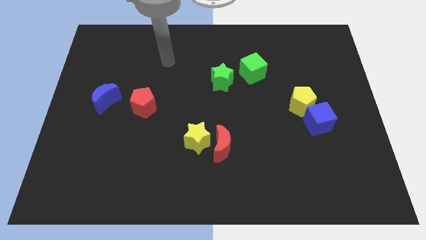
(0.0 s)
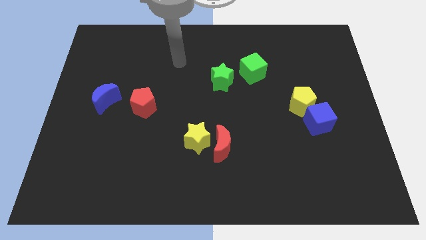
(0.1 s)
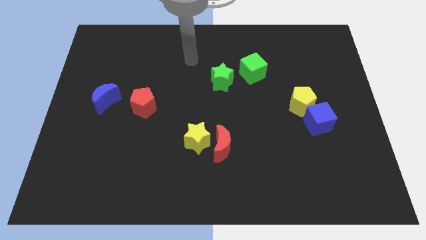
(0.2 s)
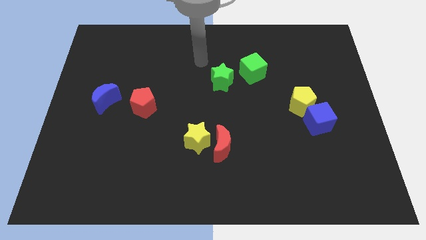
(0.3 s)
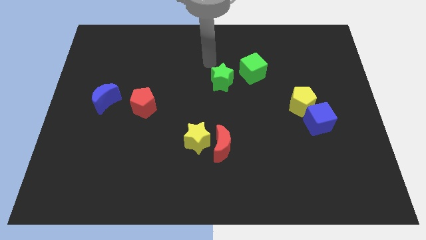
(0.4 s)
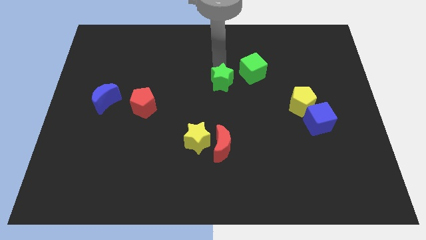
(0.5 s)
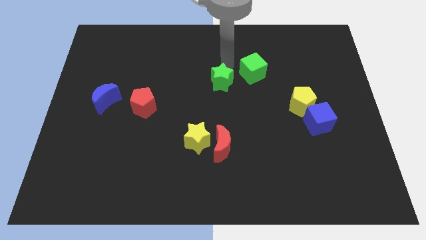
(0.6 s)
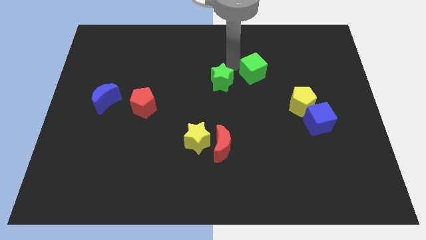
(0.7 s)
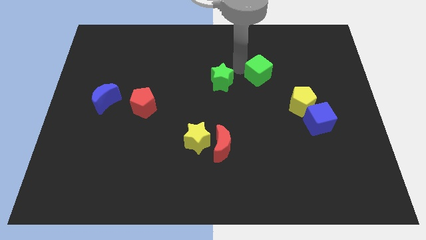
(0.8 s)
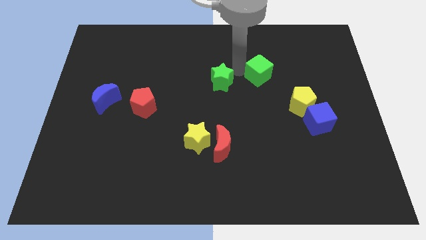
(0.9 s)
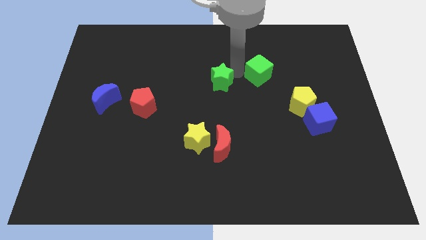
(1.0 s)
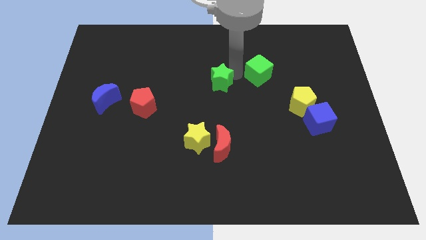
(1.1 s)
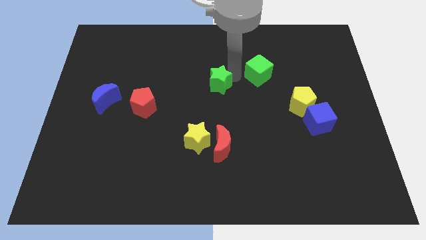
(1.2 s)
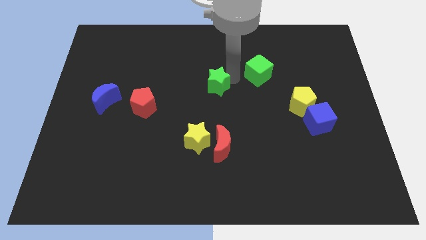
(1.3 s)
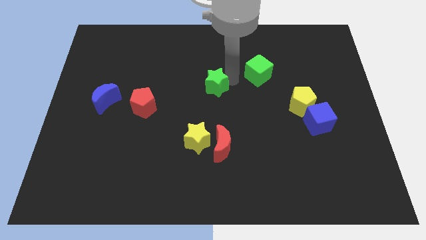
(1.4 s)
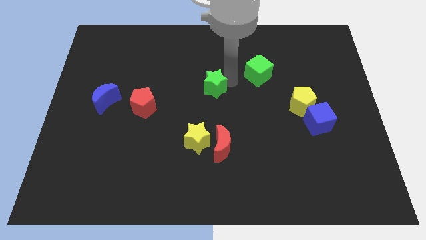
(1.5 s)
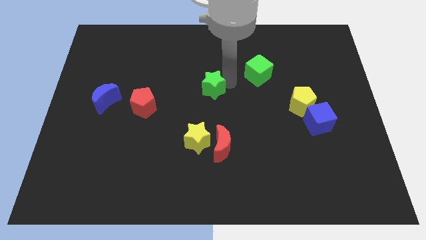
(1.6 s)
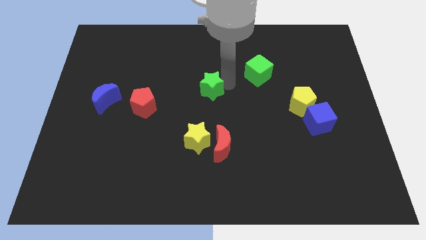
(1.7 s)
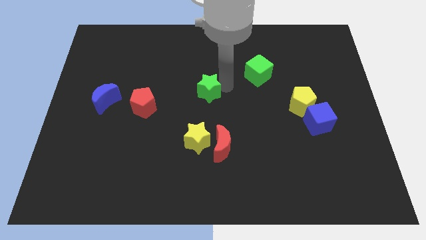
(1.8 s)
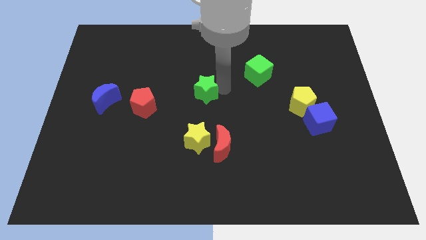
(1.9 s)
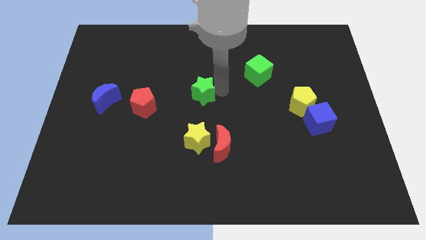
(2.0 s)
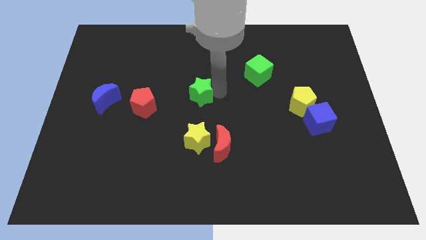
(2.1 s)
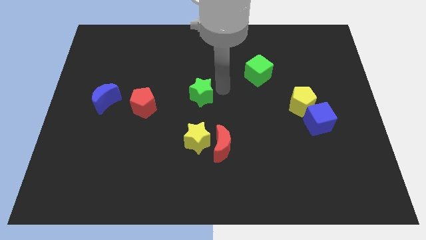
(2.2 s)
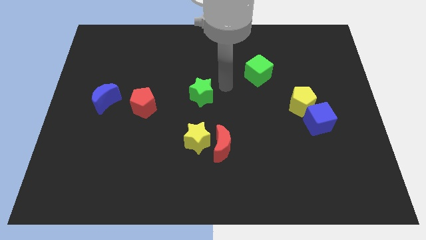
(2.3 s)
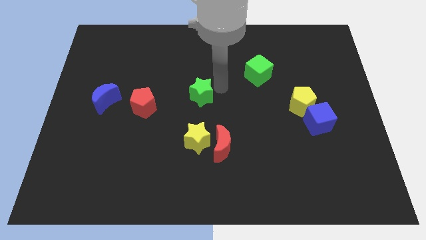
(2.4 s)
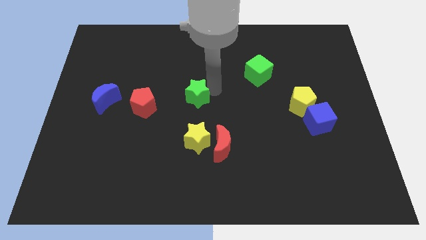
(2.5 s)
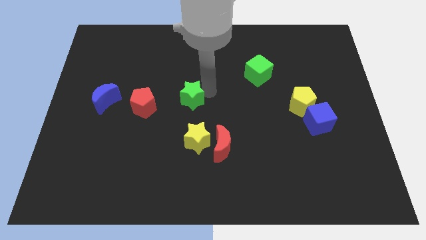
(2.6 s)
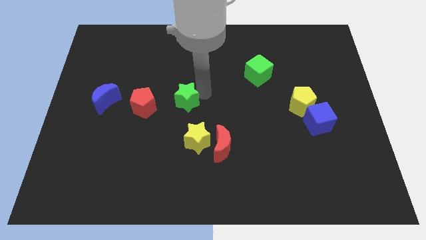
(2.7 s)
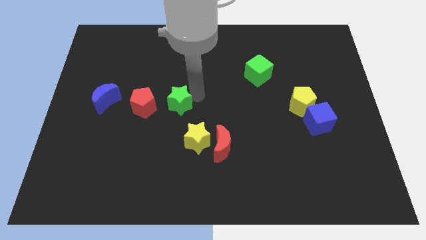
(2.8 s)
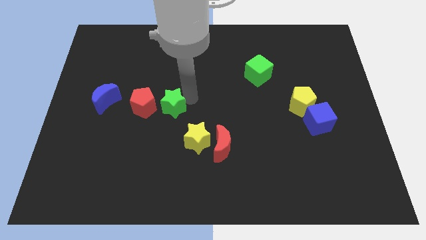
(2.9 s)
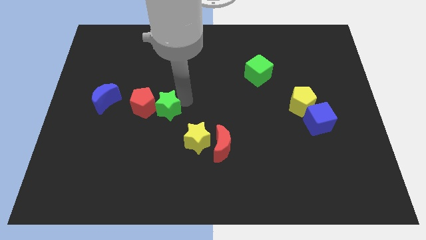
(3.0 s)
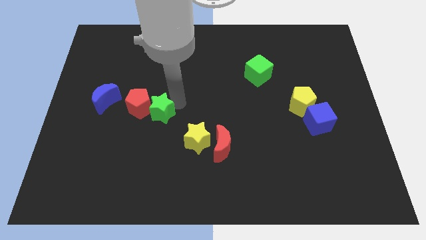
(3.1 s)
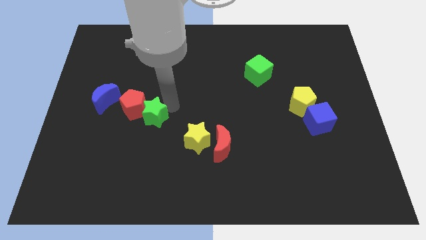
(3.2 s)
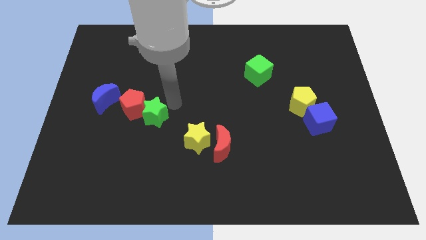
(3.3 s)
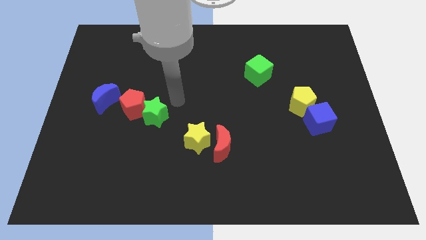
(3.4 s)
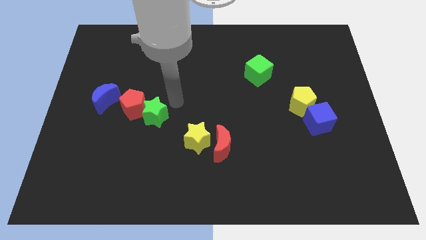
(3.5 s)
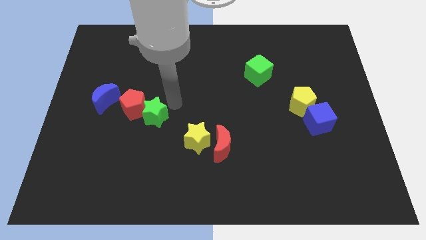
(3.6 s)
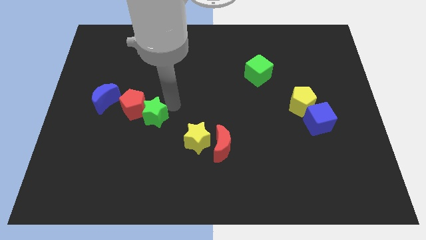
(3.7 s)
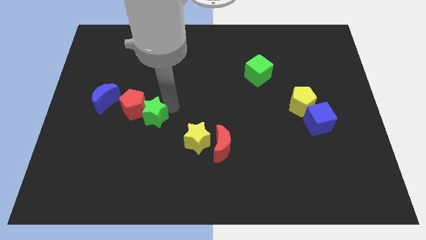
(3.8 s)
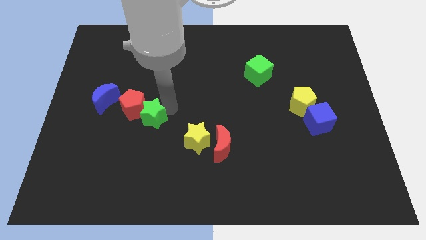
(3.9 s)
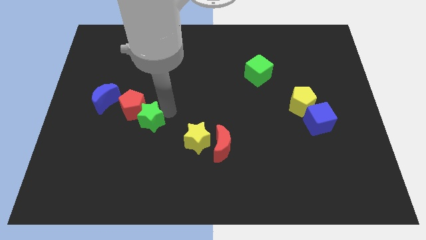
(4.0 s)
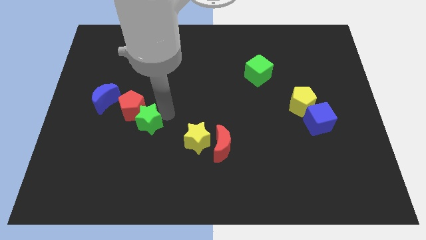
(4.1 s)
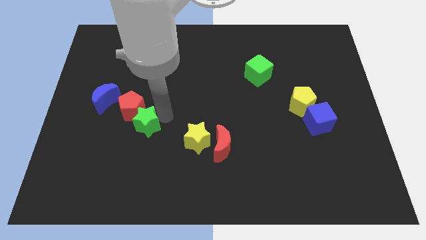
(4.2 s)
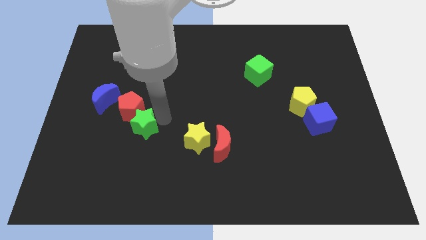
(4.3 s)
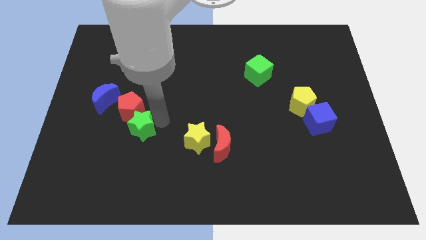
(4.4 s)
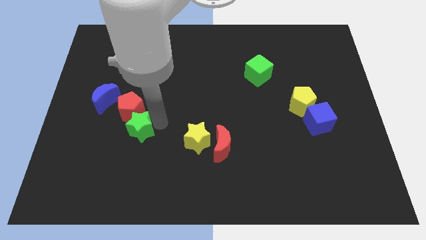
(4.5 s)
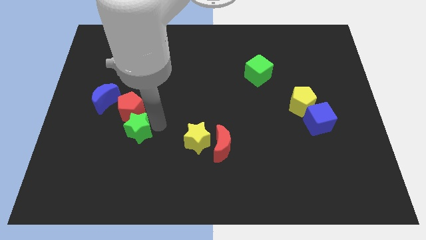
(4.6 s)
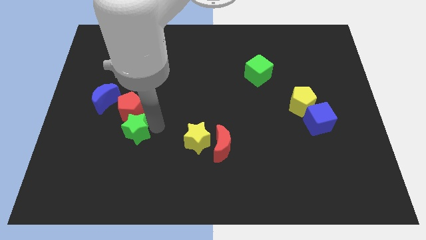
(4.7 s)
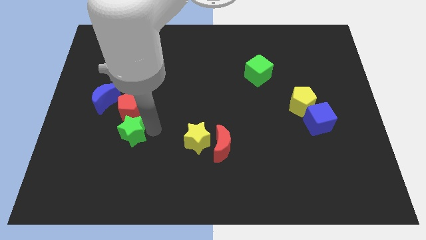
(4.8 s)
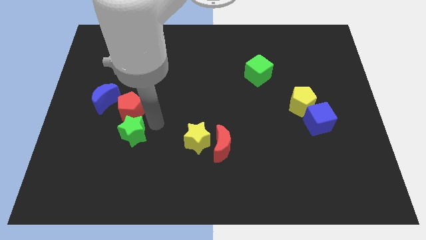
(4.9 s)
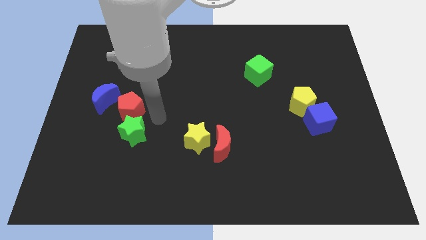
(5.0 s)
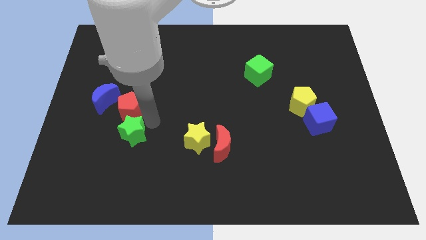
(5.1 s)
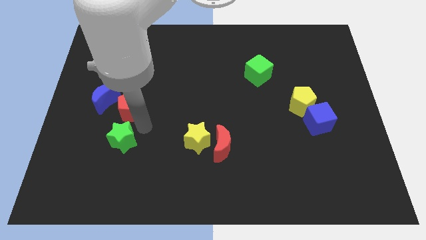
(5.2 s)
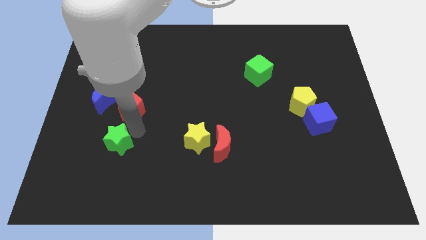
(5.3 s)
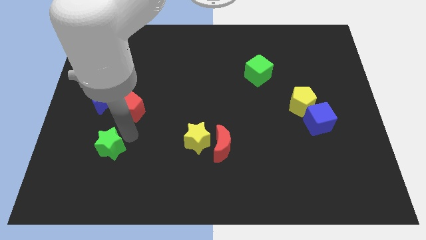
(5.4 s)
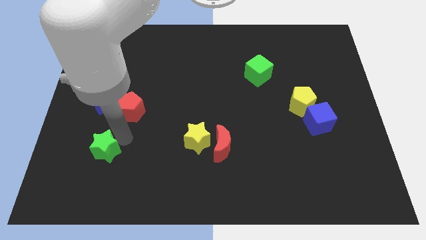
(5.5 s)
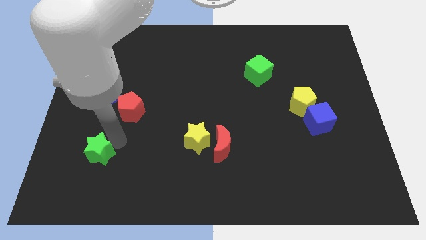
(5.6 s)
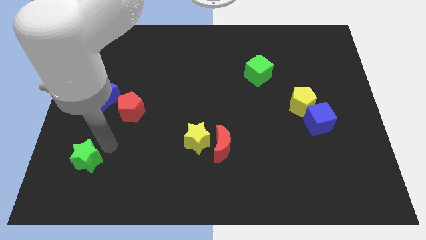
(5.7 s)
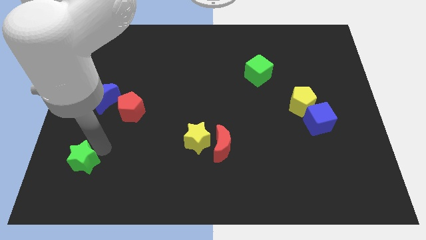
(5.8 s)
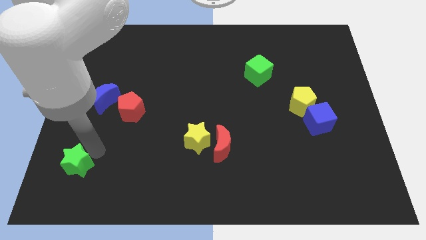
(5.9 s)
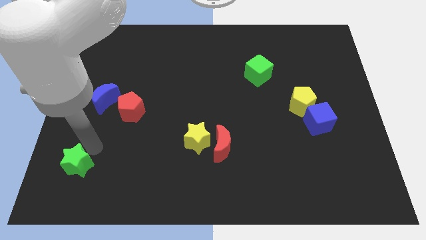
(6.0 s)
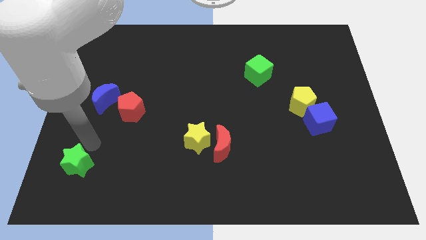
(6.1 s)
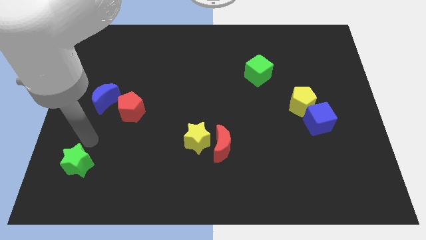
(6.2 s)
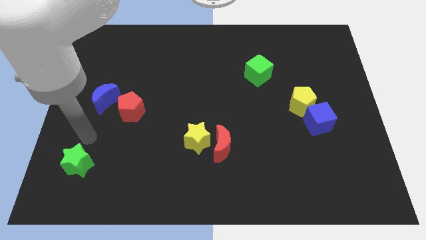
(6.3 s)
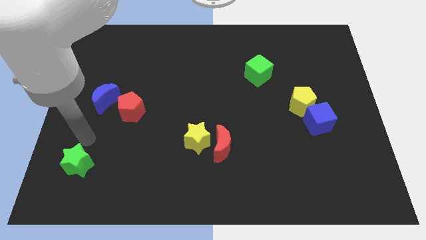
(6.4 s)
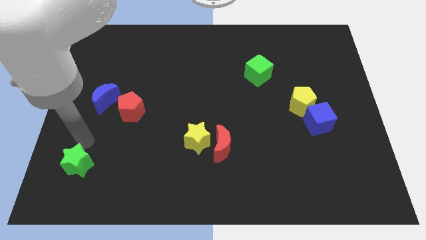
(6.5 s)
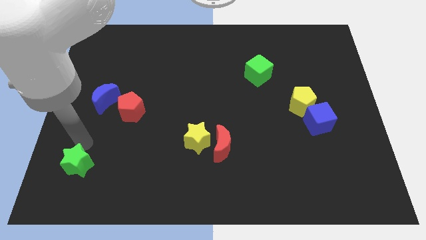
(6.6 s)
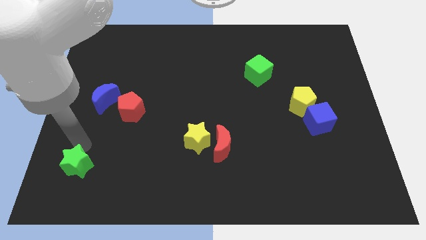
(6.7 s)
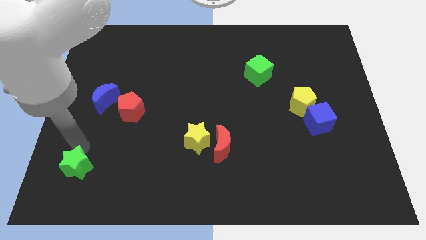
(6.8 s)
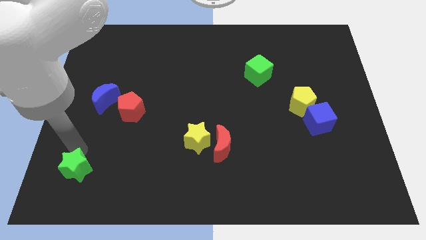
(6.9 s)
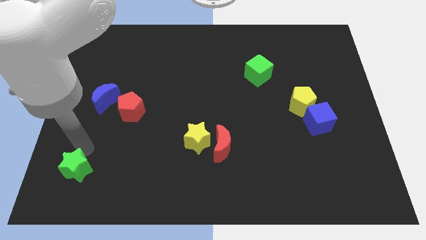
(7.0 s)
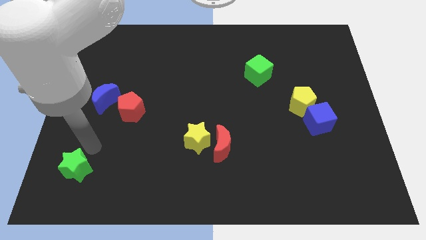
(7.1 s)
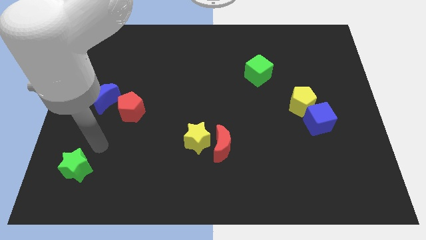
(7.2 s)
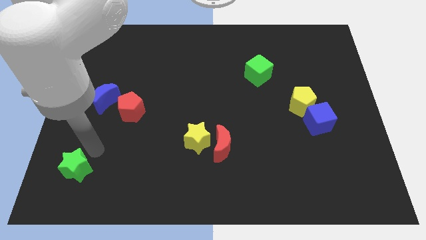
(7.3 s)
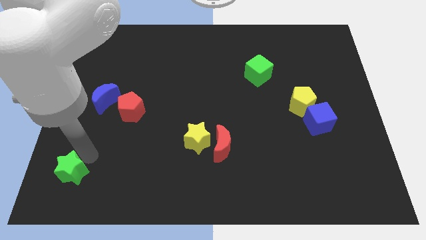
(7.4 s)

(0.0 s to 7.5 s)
move the green star to the bottom left
